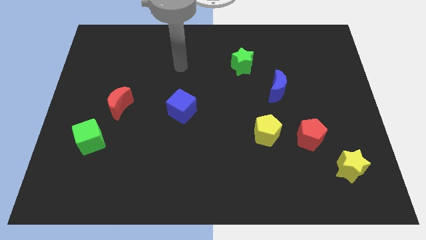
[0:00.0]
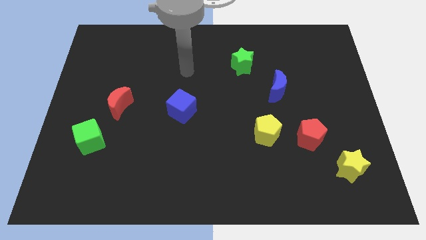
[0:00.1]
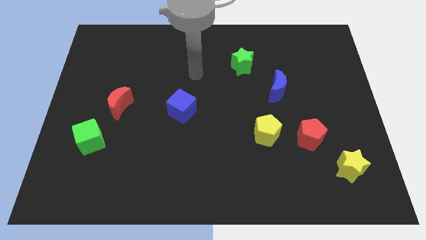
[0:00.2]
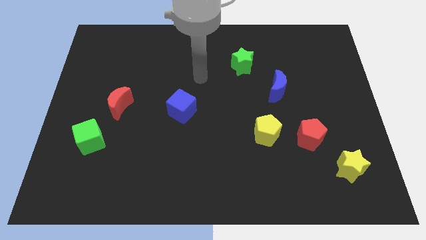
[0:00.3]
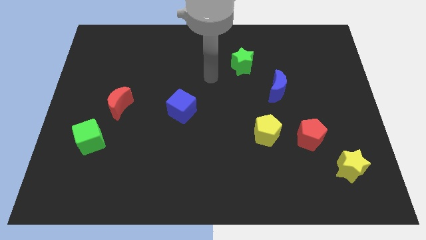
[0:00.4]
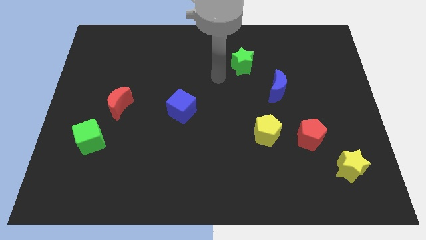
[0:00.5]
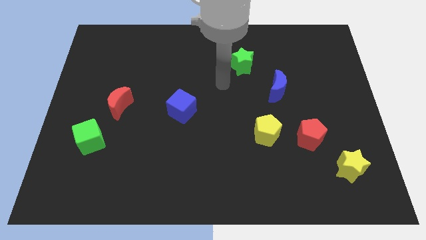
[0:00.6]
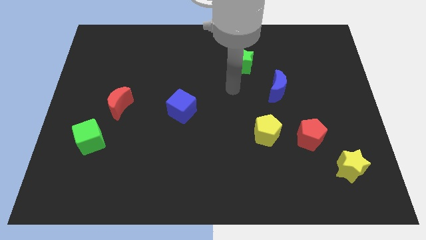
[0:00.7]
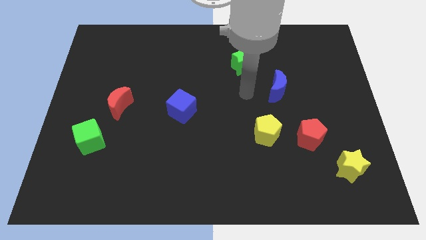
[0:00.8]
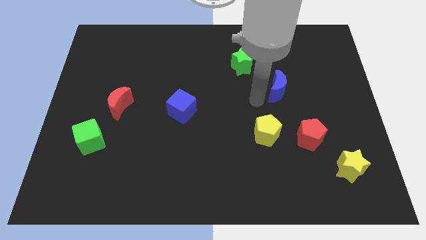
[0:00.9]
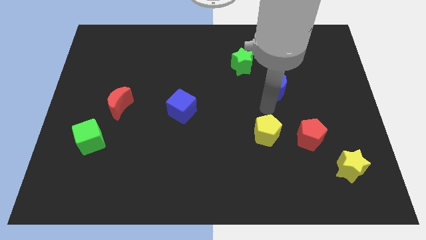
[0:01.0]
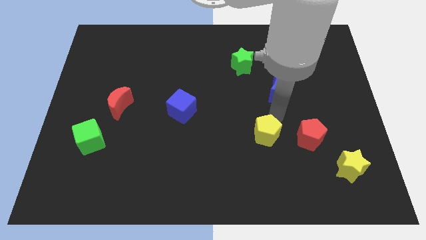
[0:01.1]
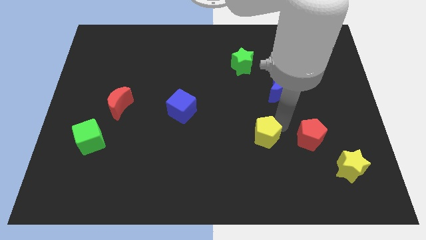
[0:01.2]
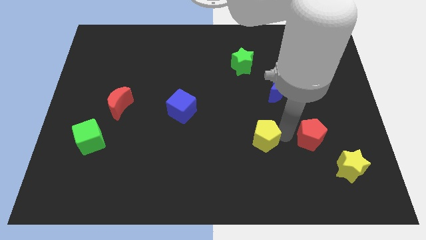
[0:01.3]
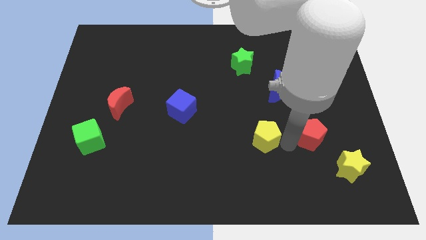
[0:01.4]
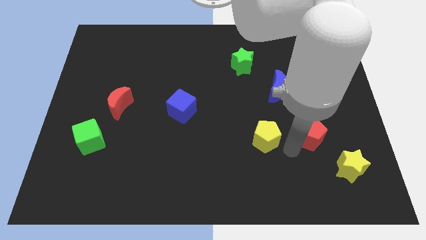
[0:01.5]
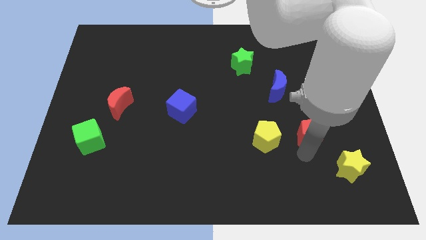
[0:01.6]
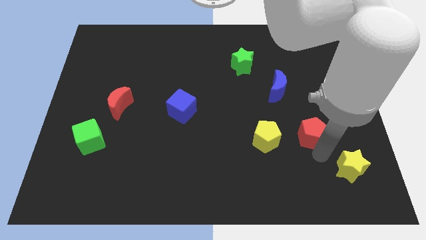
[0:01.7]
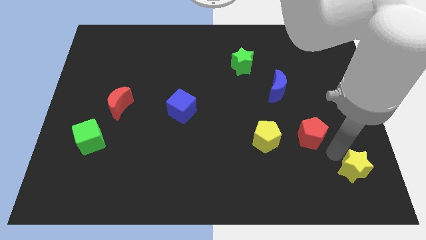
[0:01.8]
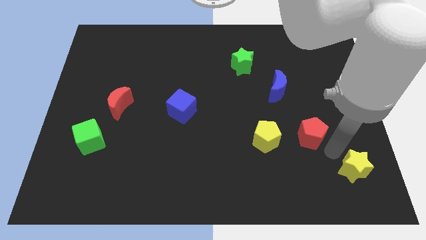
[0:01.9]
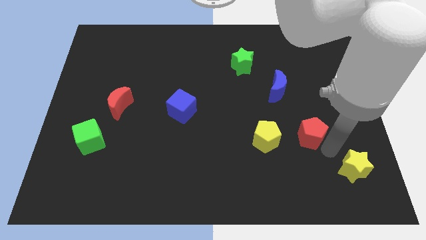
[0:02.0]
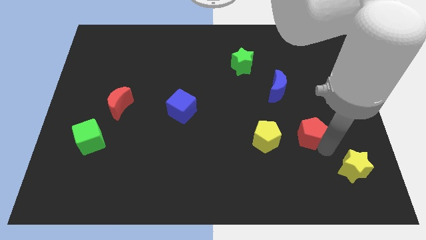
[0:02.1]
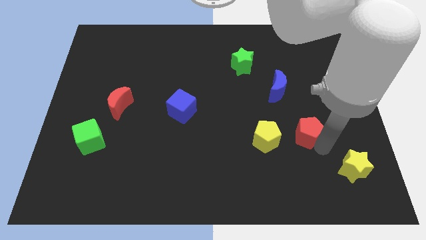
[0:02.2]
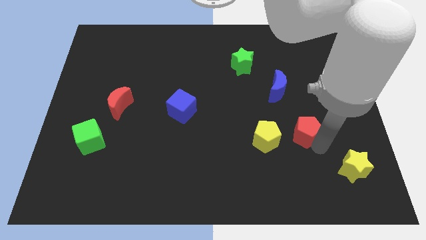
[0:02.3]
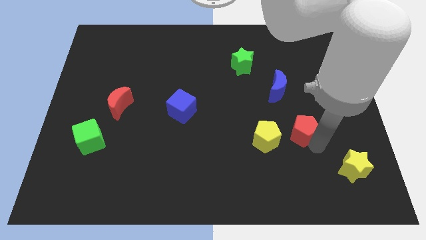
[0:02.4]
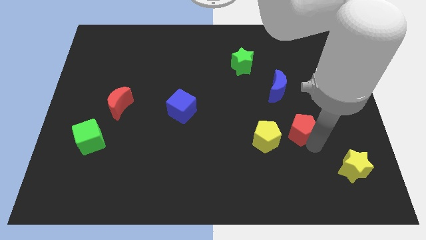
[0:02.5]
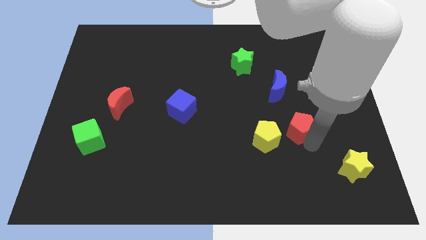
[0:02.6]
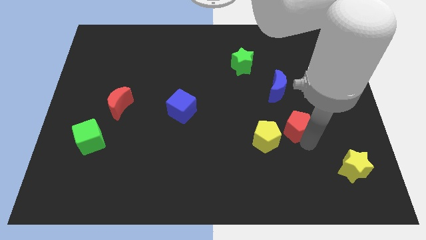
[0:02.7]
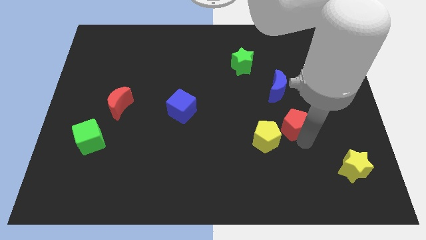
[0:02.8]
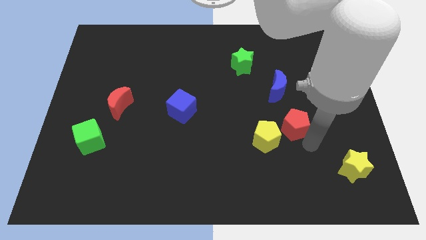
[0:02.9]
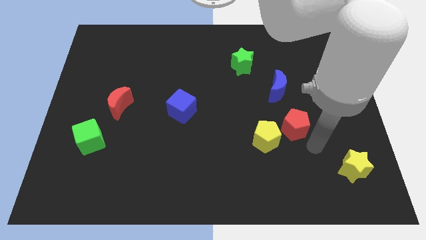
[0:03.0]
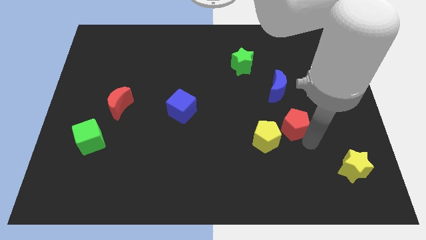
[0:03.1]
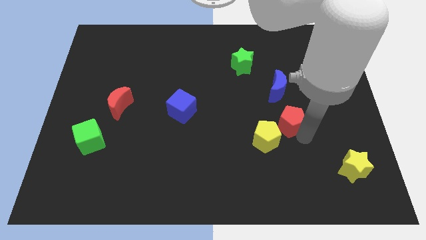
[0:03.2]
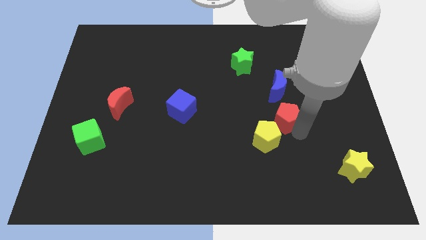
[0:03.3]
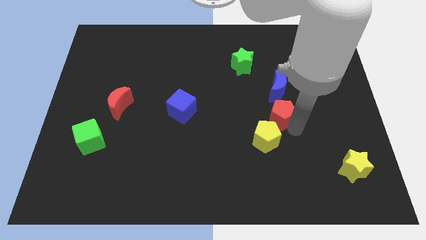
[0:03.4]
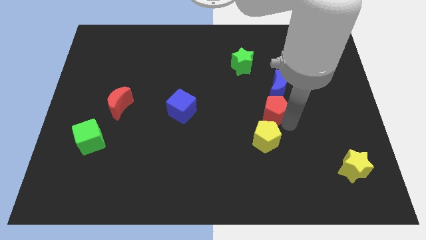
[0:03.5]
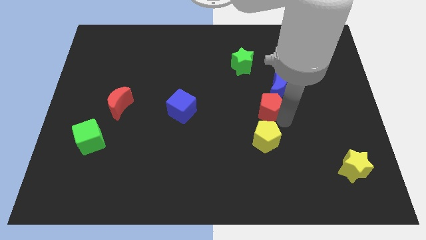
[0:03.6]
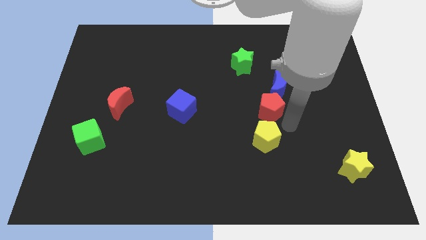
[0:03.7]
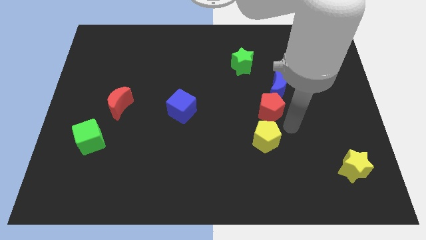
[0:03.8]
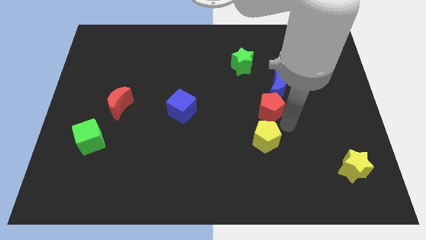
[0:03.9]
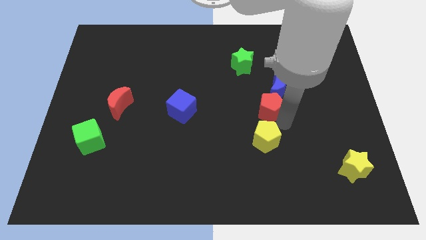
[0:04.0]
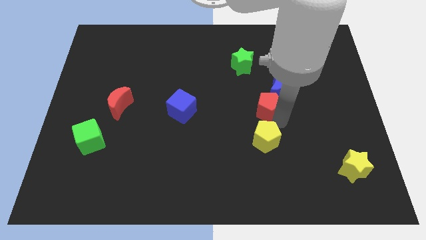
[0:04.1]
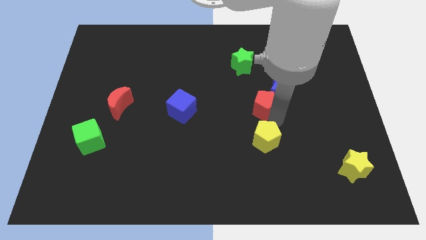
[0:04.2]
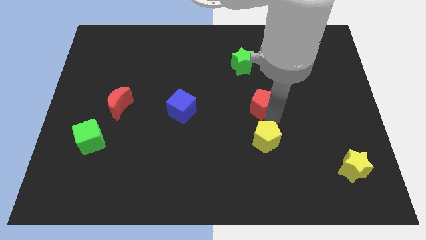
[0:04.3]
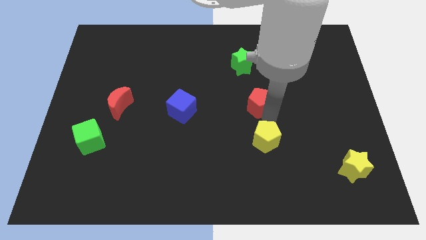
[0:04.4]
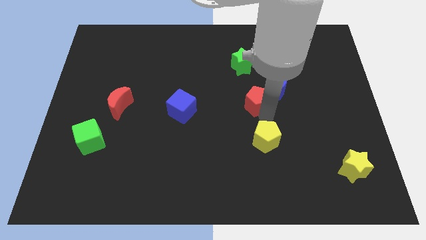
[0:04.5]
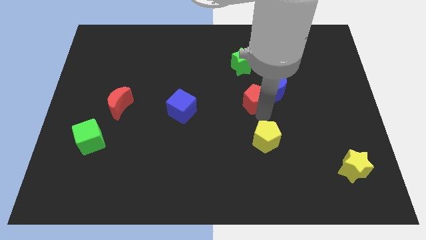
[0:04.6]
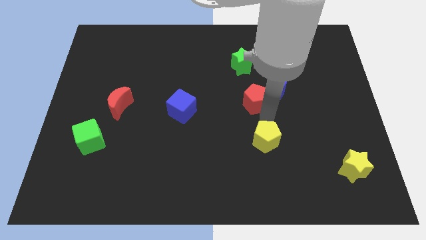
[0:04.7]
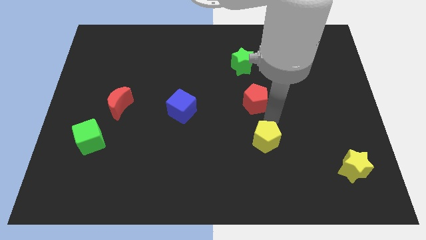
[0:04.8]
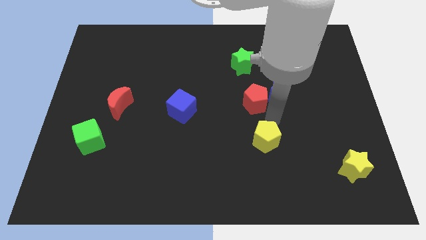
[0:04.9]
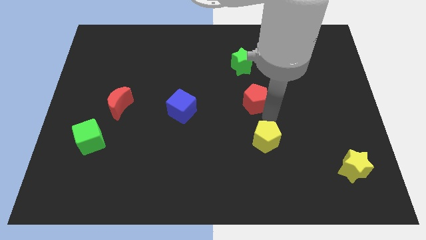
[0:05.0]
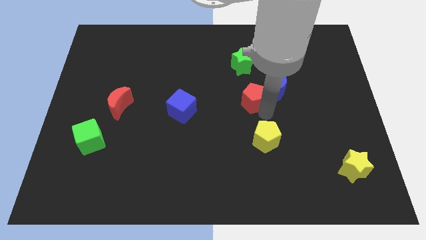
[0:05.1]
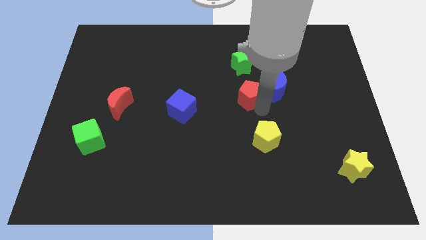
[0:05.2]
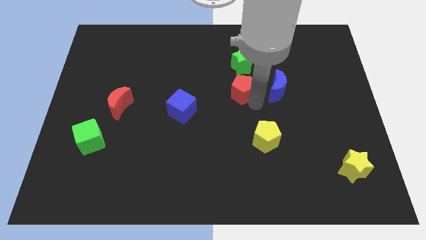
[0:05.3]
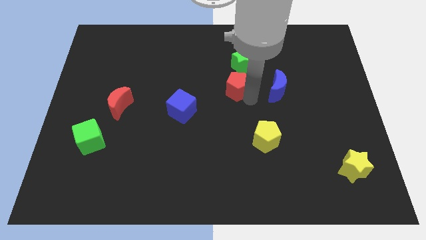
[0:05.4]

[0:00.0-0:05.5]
push the red pentagon upwards and to the left

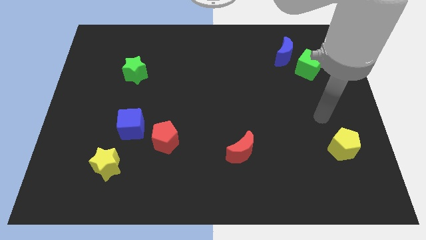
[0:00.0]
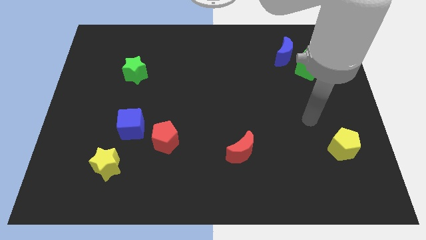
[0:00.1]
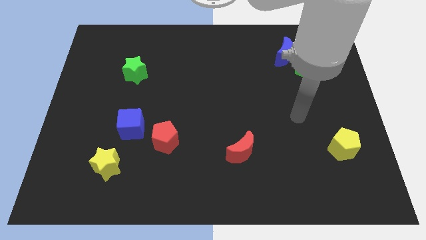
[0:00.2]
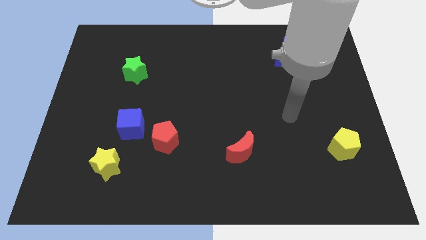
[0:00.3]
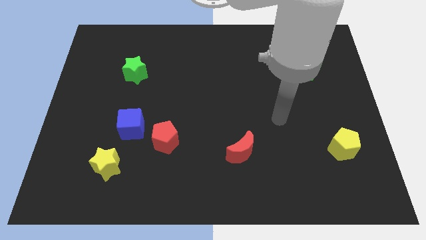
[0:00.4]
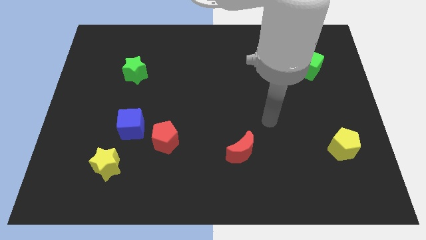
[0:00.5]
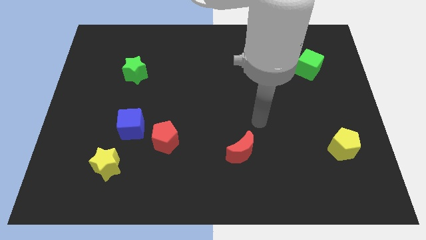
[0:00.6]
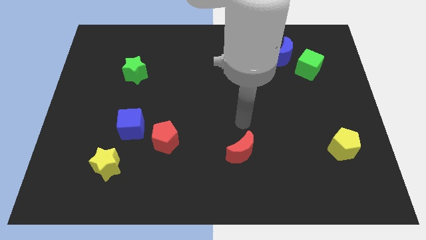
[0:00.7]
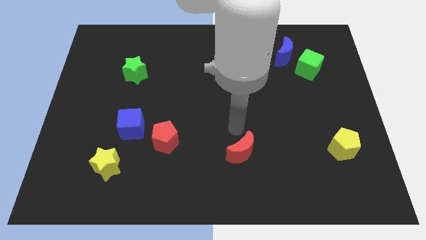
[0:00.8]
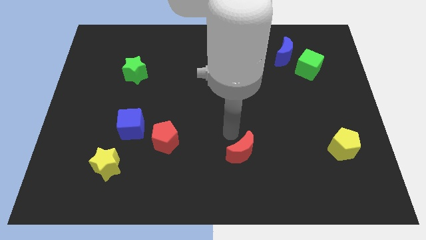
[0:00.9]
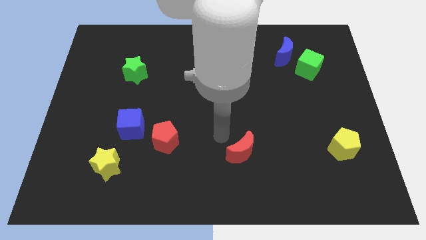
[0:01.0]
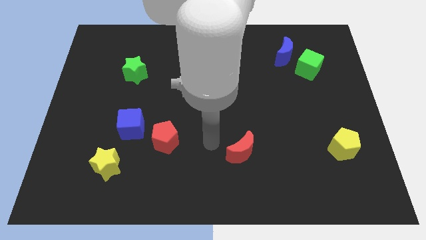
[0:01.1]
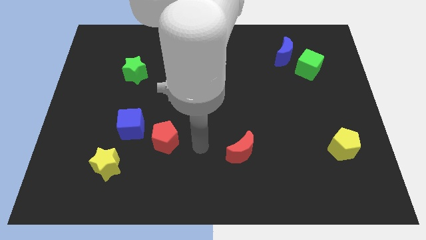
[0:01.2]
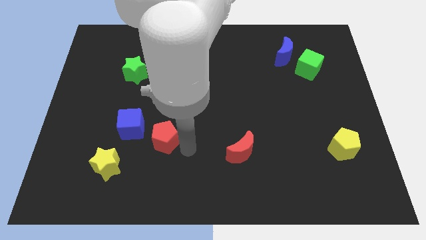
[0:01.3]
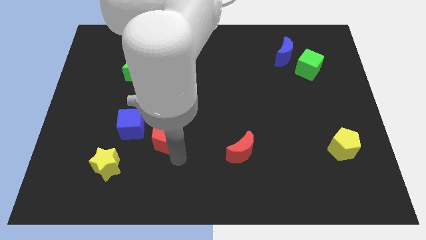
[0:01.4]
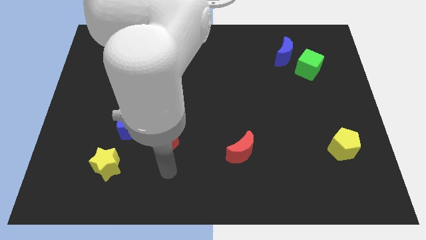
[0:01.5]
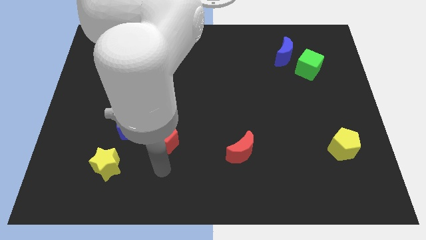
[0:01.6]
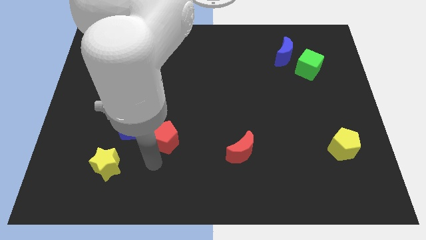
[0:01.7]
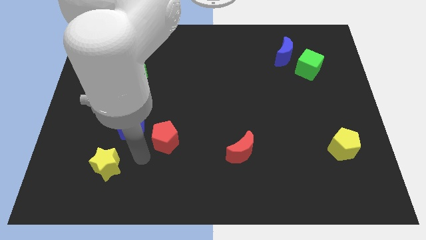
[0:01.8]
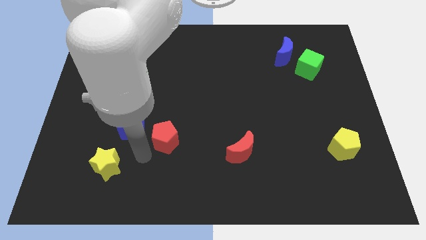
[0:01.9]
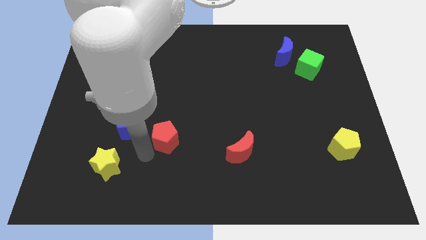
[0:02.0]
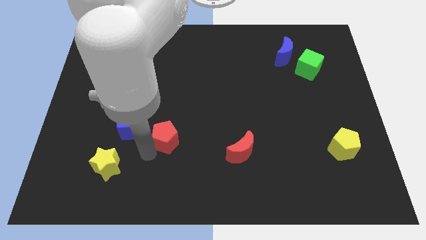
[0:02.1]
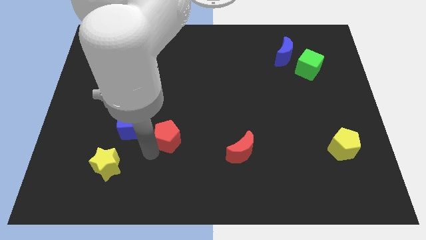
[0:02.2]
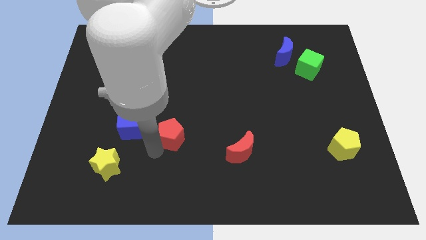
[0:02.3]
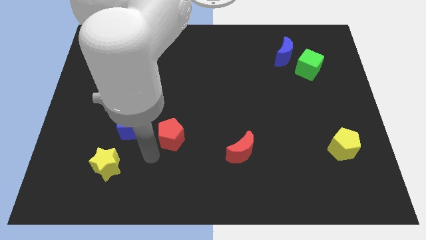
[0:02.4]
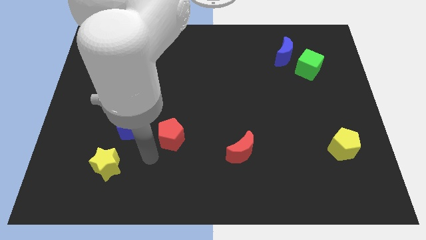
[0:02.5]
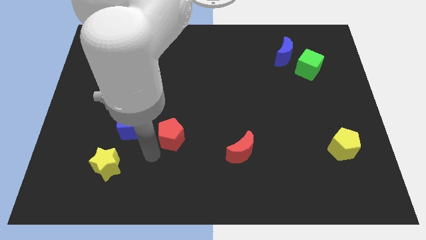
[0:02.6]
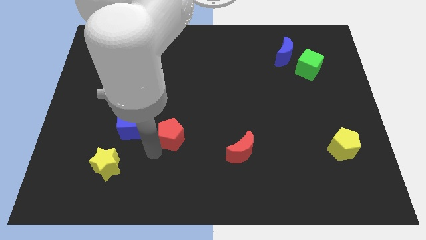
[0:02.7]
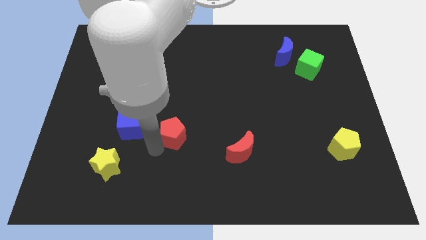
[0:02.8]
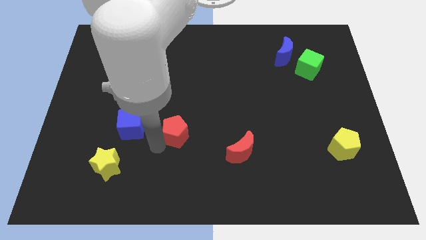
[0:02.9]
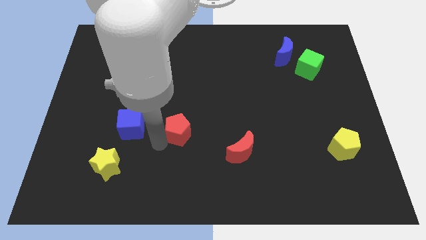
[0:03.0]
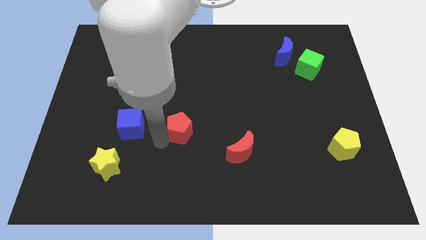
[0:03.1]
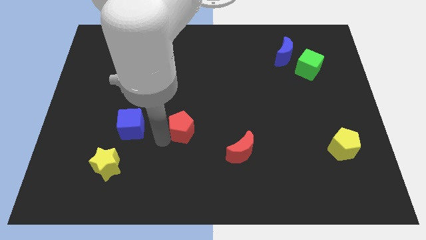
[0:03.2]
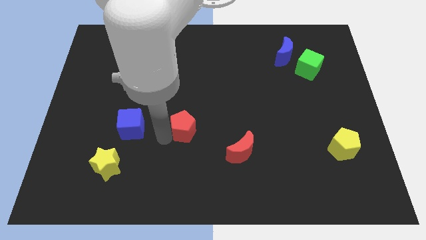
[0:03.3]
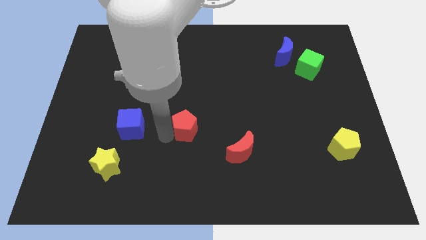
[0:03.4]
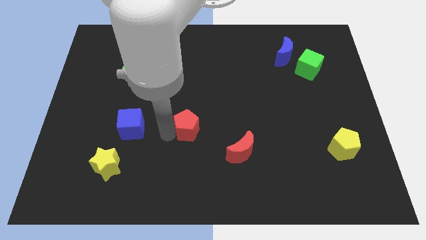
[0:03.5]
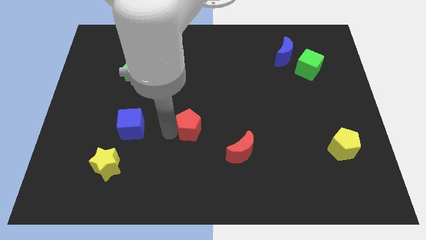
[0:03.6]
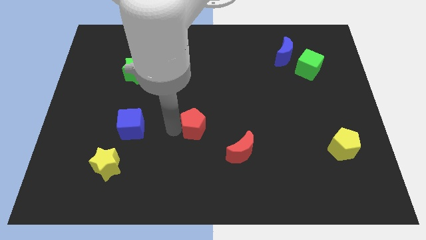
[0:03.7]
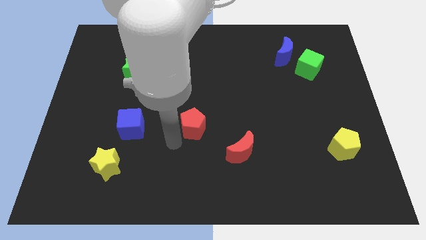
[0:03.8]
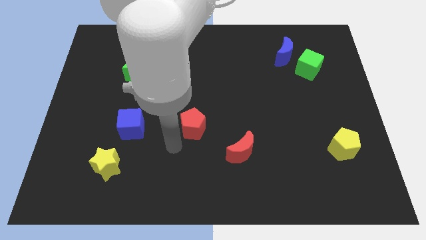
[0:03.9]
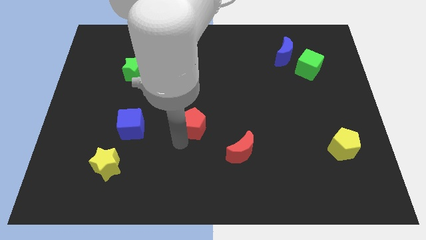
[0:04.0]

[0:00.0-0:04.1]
slide the red pentagon somewhat upwards and then right
